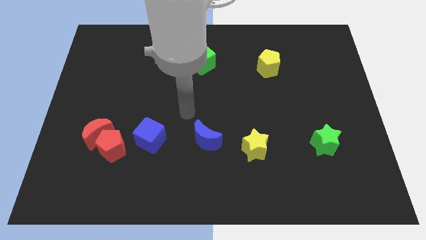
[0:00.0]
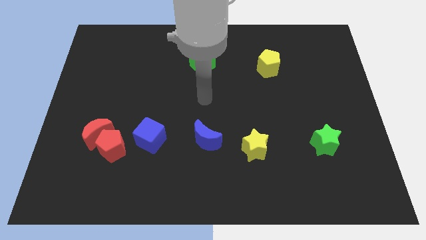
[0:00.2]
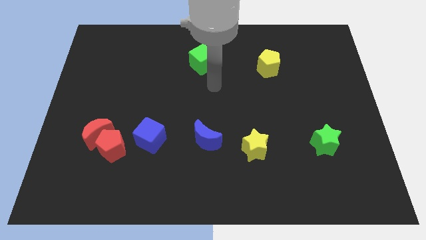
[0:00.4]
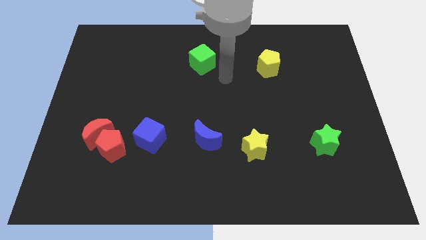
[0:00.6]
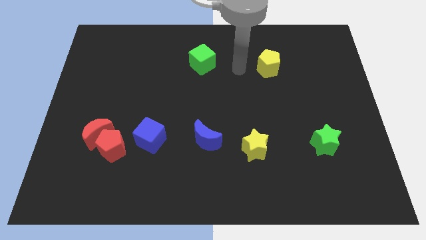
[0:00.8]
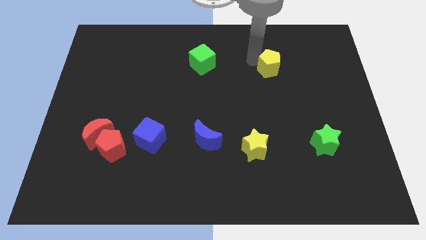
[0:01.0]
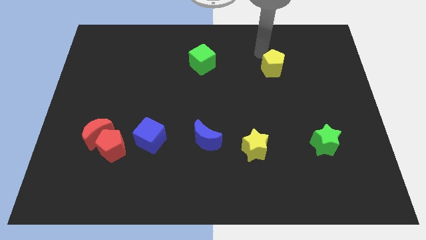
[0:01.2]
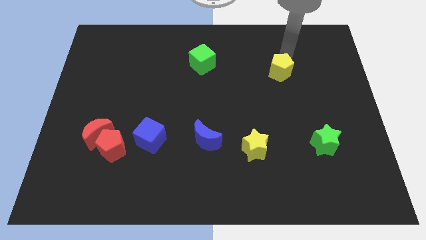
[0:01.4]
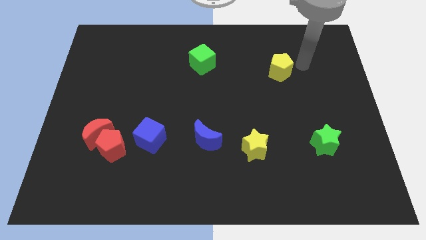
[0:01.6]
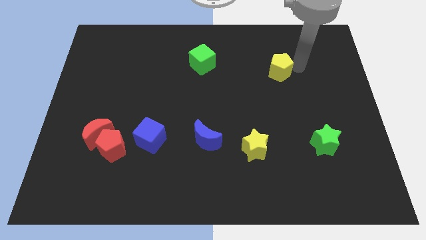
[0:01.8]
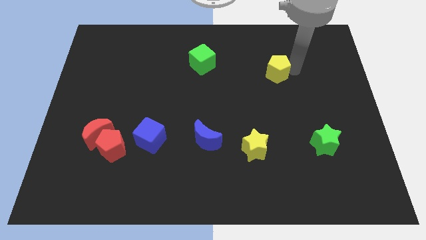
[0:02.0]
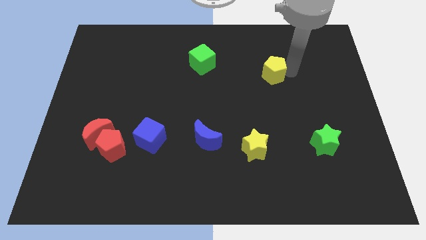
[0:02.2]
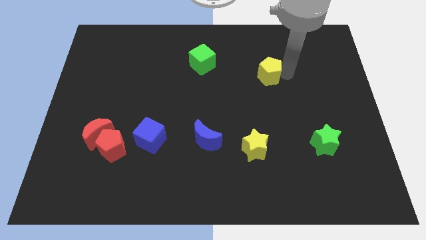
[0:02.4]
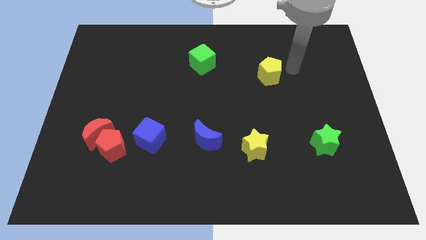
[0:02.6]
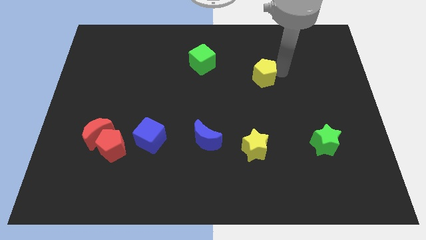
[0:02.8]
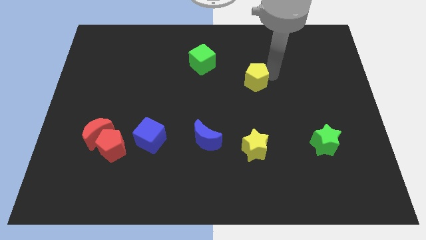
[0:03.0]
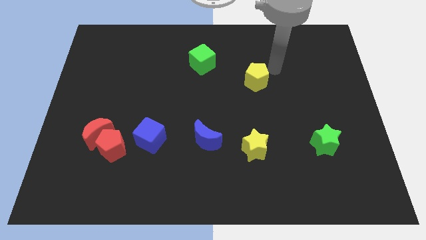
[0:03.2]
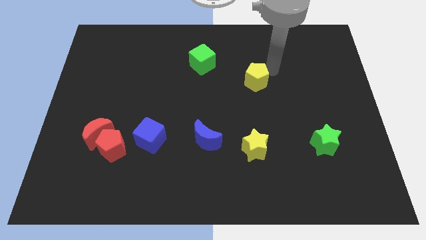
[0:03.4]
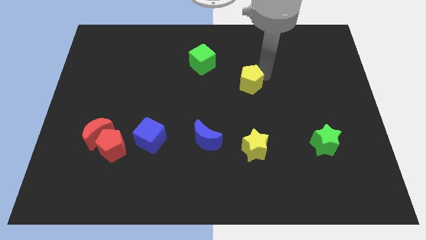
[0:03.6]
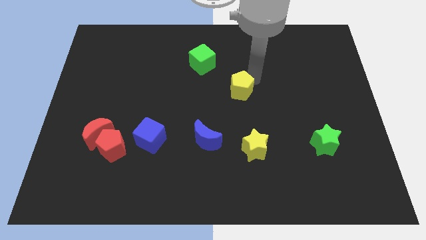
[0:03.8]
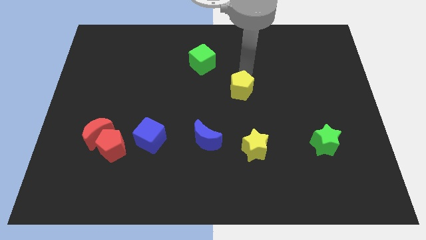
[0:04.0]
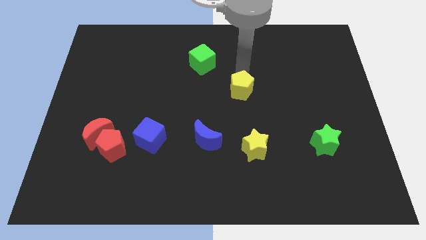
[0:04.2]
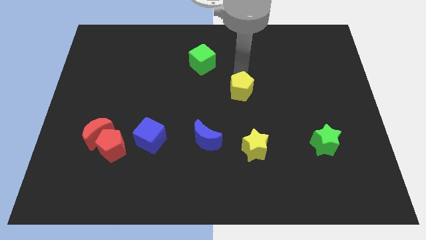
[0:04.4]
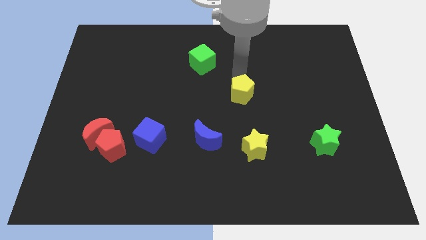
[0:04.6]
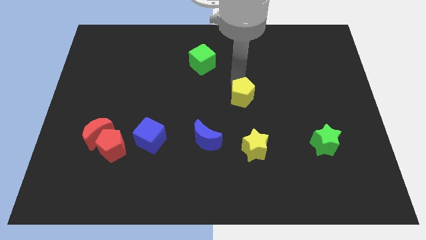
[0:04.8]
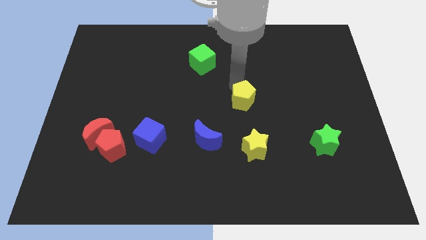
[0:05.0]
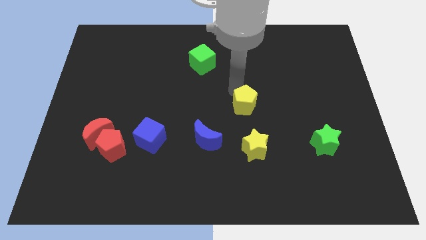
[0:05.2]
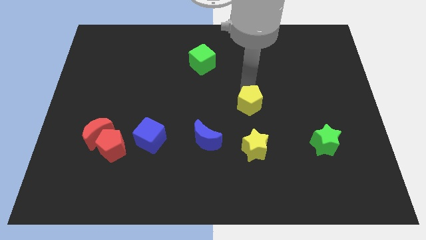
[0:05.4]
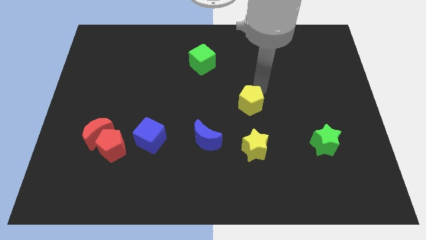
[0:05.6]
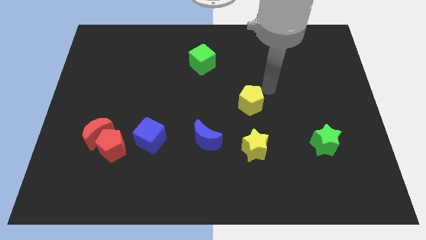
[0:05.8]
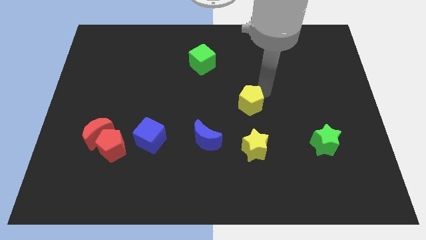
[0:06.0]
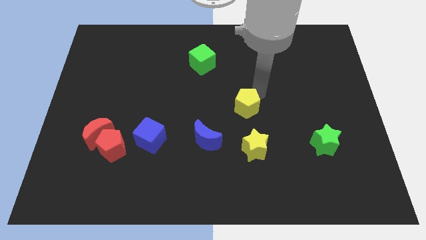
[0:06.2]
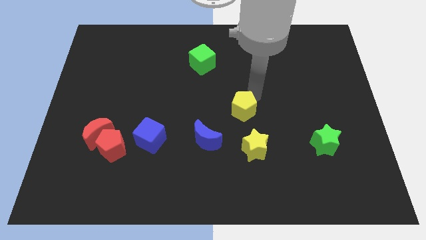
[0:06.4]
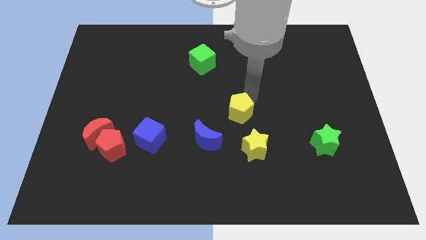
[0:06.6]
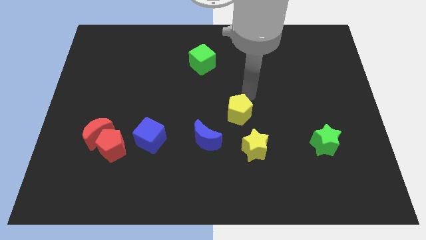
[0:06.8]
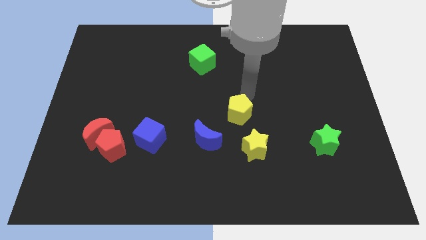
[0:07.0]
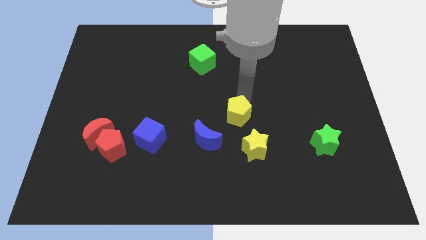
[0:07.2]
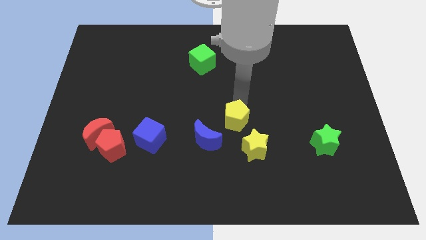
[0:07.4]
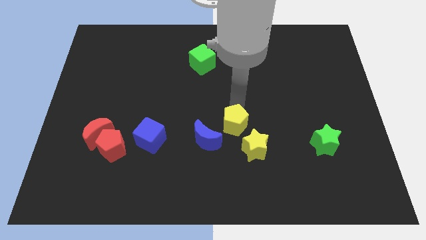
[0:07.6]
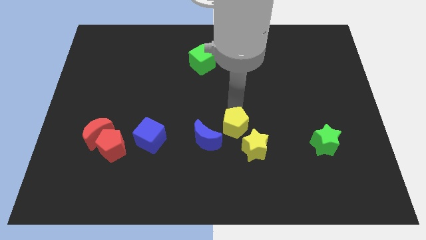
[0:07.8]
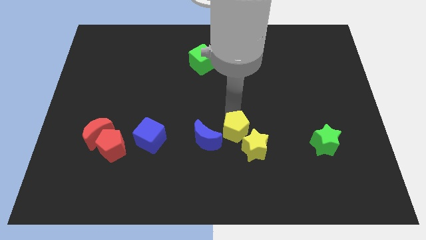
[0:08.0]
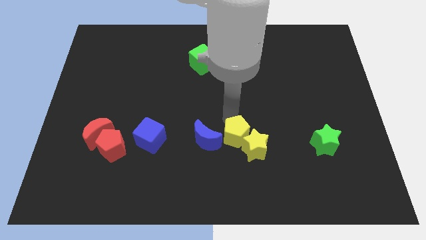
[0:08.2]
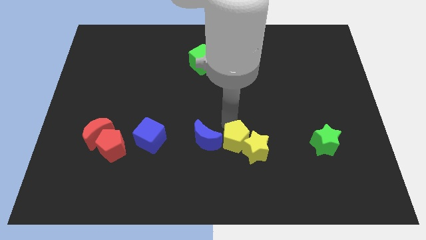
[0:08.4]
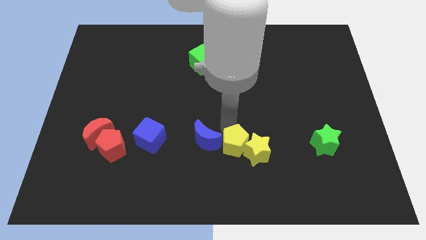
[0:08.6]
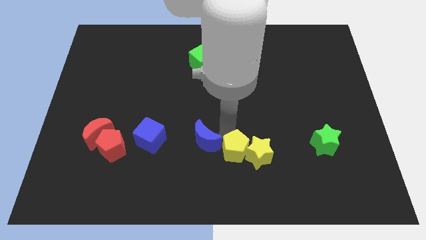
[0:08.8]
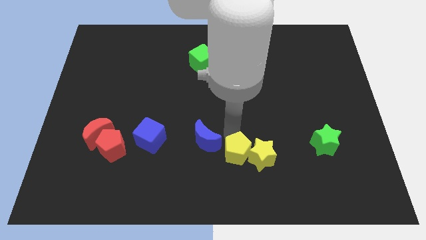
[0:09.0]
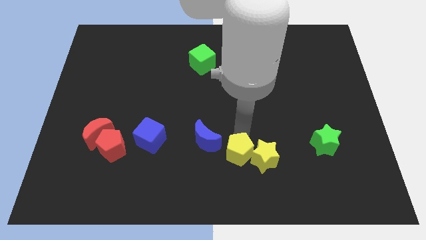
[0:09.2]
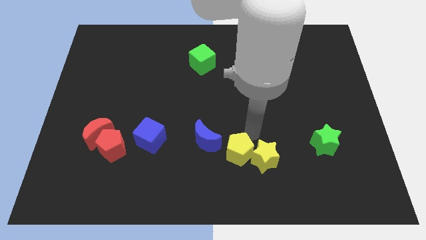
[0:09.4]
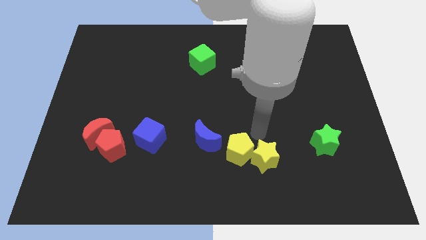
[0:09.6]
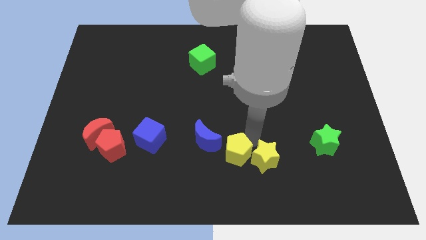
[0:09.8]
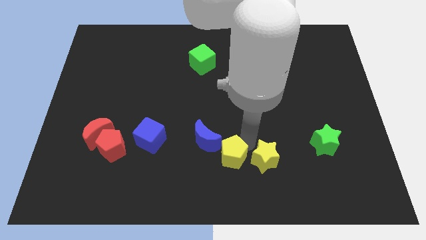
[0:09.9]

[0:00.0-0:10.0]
push the yellow pentagon to the bottom side

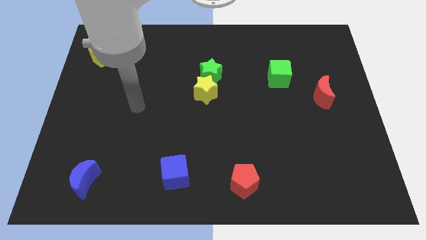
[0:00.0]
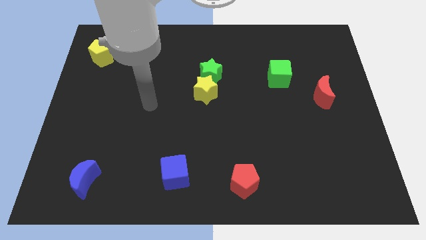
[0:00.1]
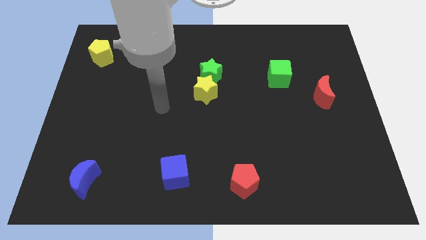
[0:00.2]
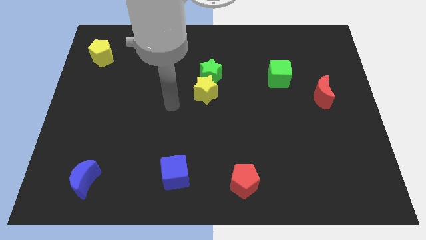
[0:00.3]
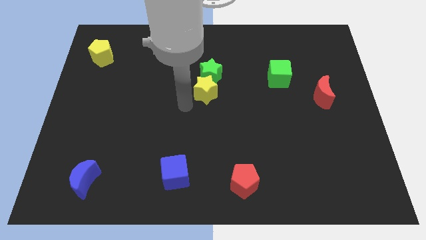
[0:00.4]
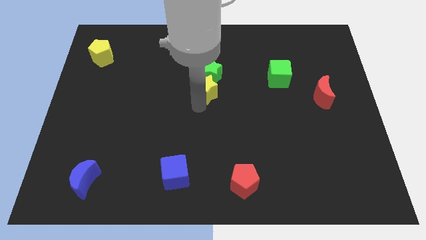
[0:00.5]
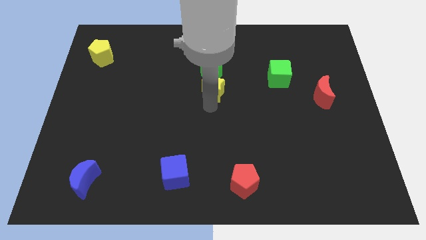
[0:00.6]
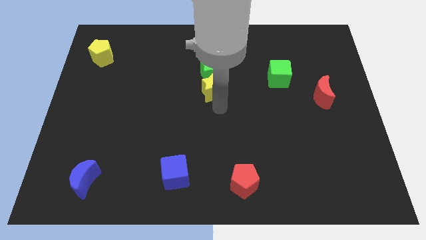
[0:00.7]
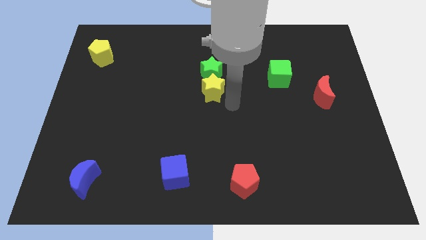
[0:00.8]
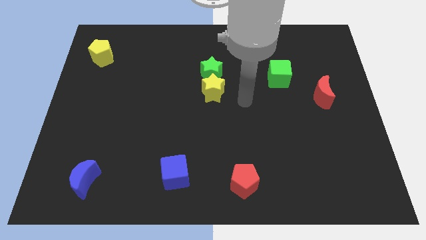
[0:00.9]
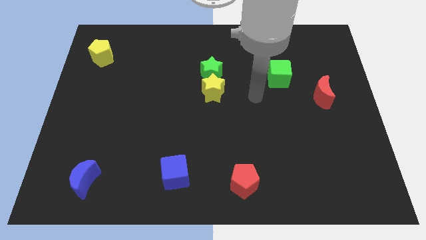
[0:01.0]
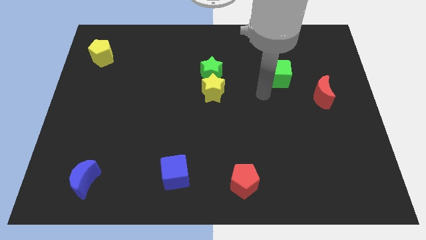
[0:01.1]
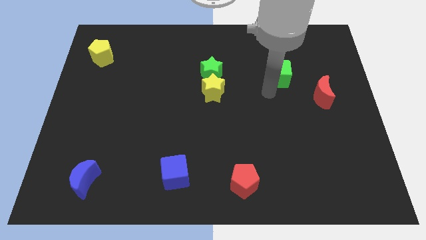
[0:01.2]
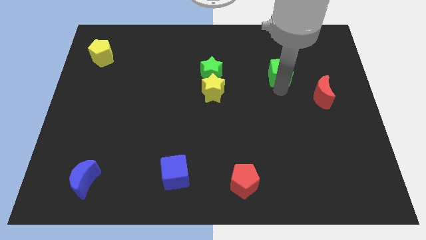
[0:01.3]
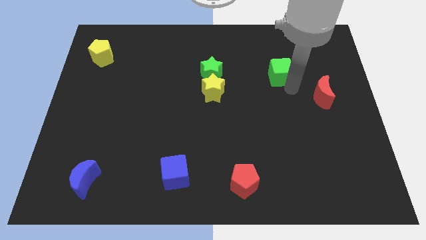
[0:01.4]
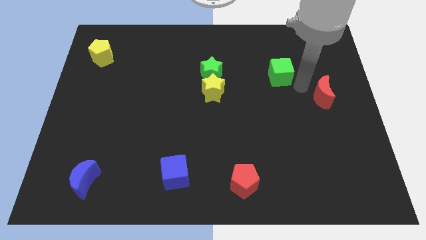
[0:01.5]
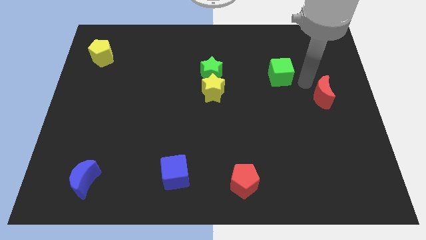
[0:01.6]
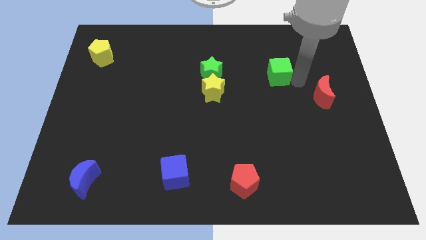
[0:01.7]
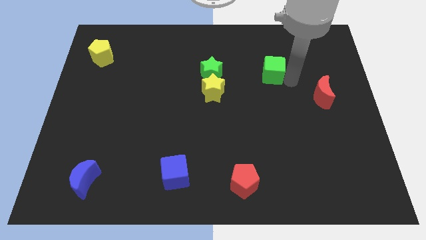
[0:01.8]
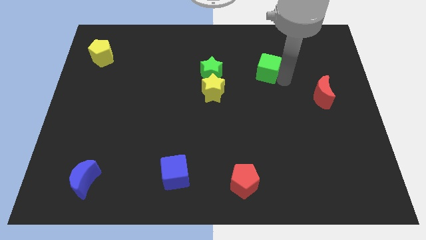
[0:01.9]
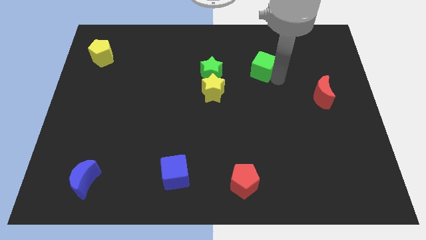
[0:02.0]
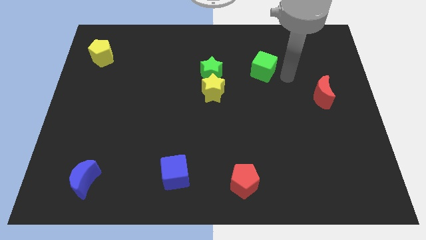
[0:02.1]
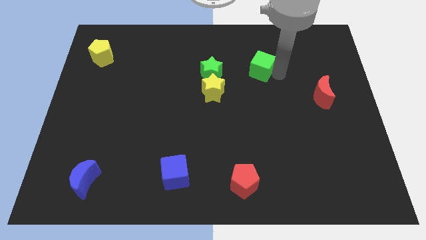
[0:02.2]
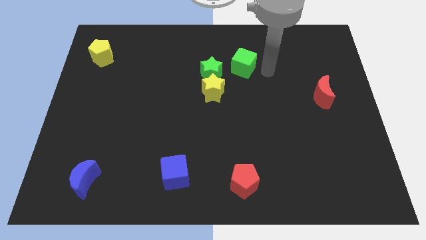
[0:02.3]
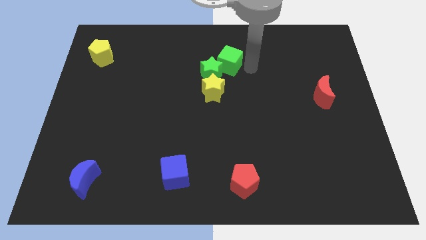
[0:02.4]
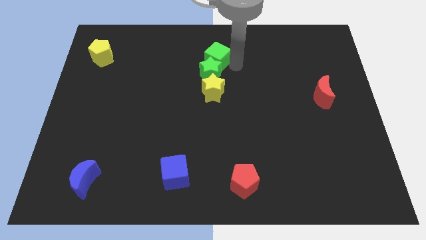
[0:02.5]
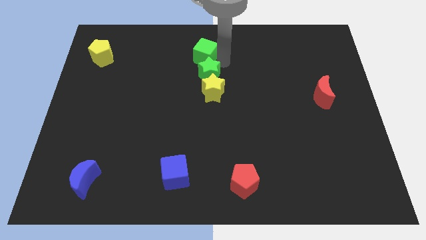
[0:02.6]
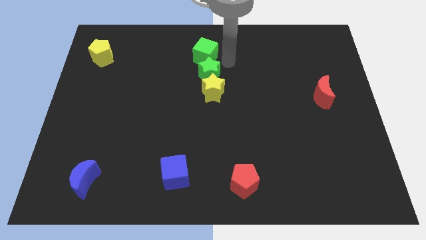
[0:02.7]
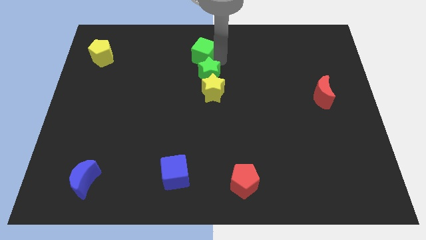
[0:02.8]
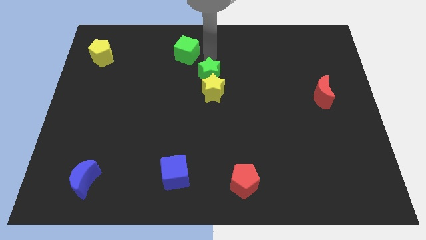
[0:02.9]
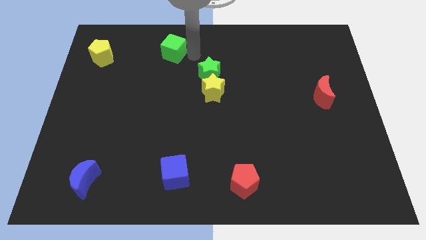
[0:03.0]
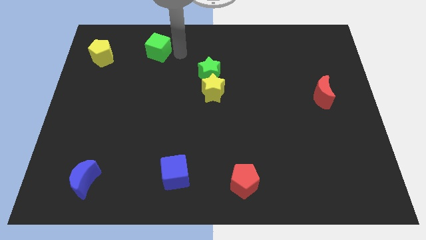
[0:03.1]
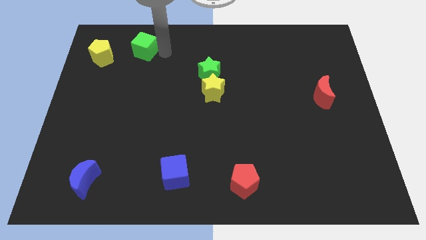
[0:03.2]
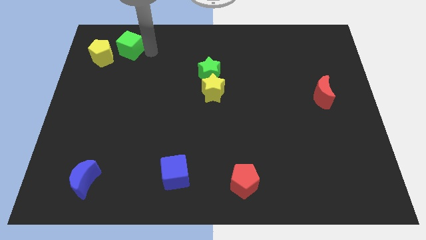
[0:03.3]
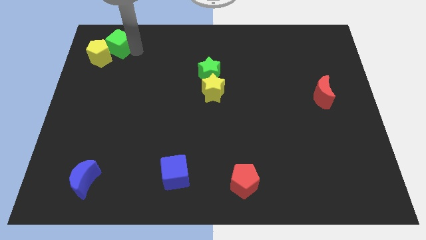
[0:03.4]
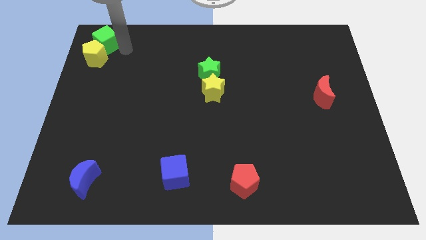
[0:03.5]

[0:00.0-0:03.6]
put the green cube to the top left of the board
